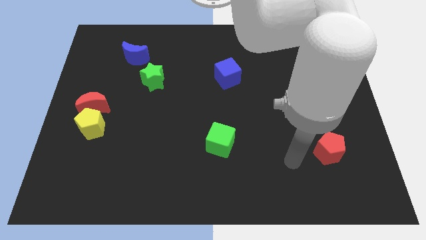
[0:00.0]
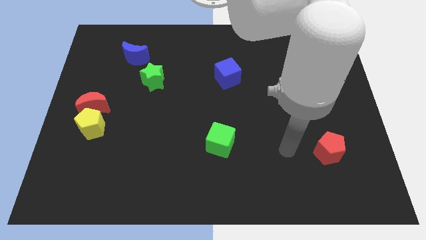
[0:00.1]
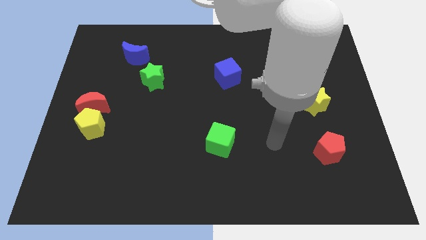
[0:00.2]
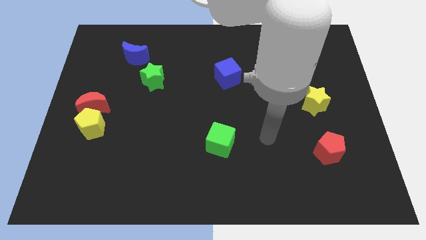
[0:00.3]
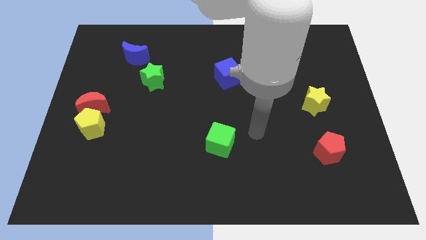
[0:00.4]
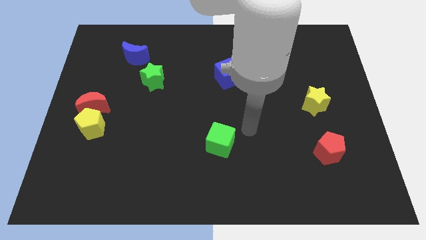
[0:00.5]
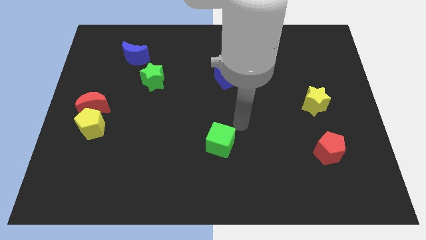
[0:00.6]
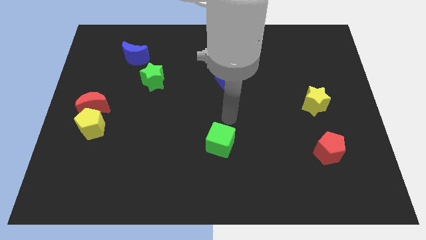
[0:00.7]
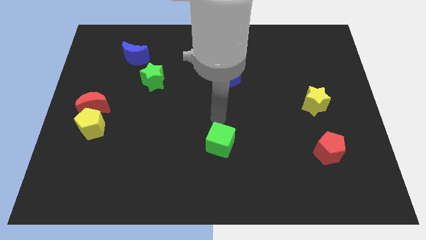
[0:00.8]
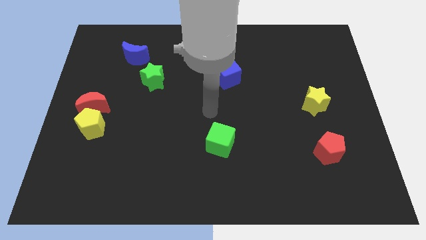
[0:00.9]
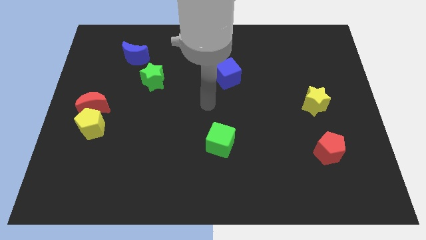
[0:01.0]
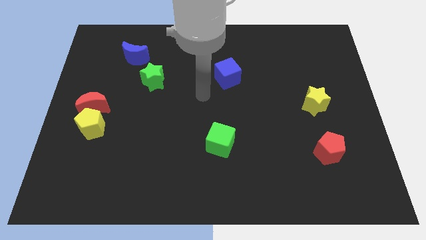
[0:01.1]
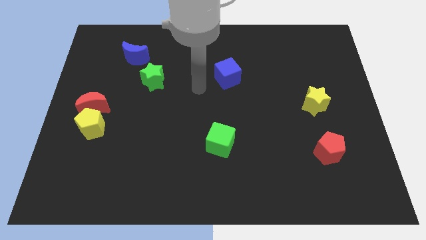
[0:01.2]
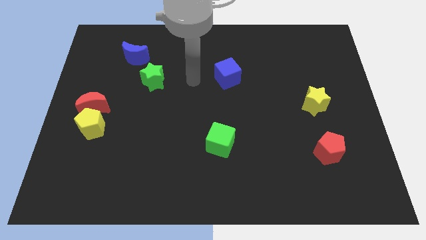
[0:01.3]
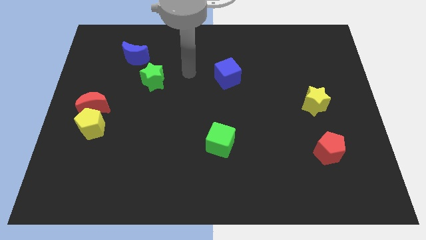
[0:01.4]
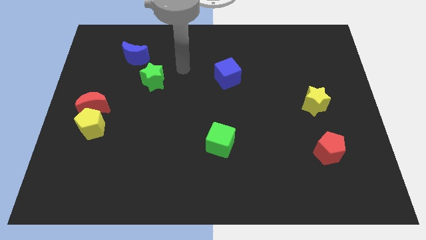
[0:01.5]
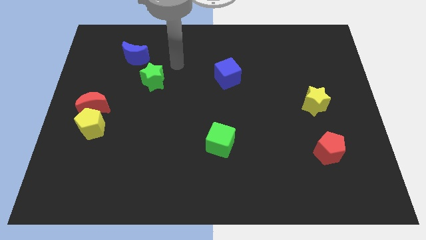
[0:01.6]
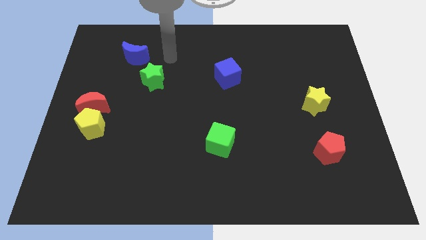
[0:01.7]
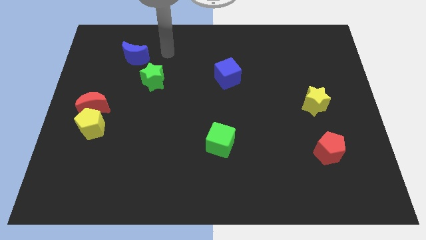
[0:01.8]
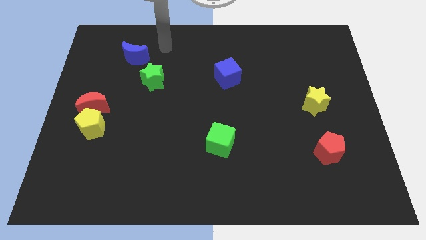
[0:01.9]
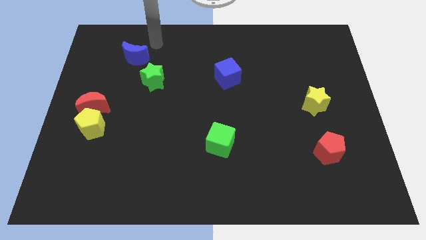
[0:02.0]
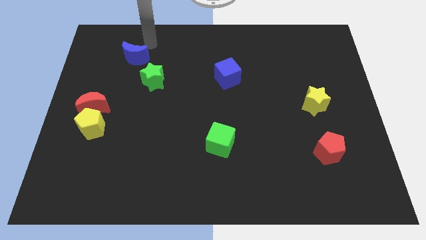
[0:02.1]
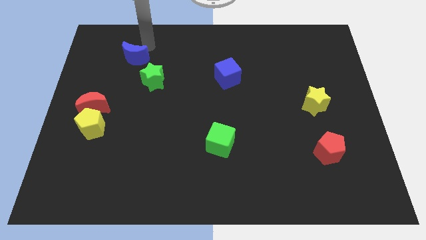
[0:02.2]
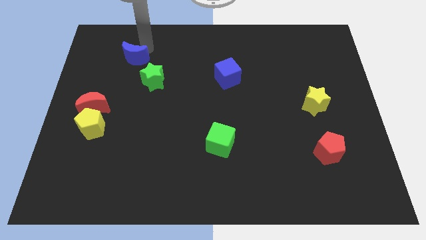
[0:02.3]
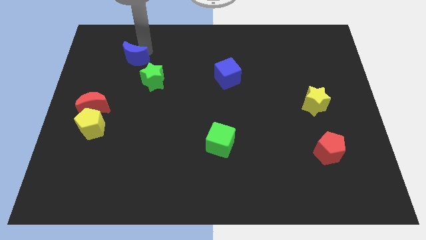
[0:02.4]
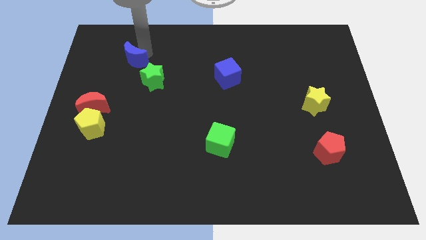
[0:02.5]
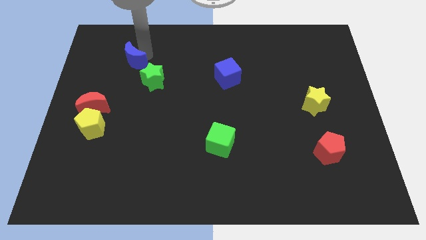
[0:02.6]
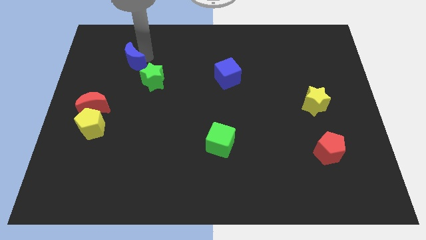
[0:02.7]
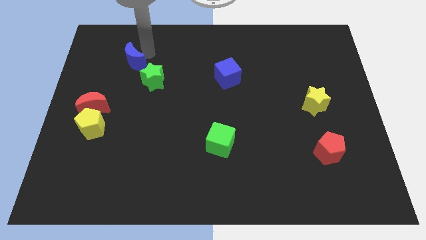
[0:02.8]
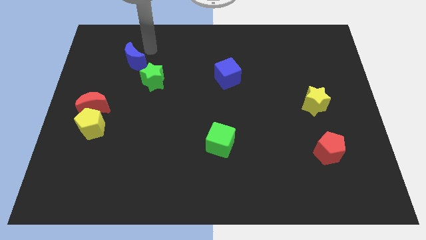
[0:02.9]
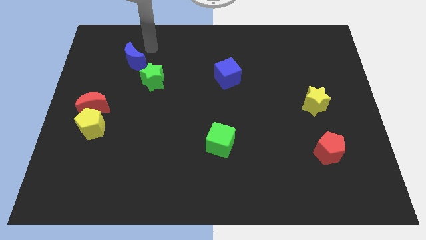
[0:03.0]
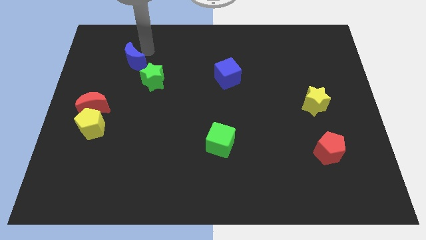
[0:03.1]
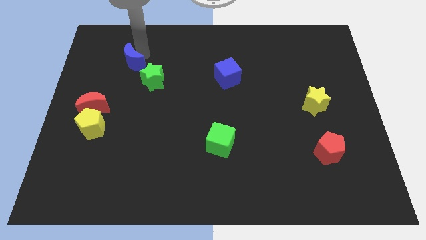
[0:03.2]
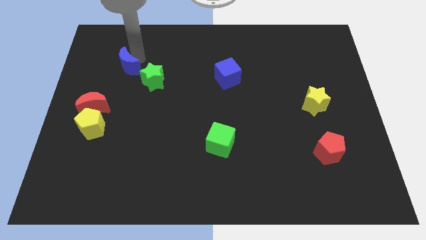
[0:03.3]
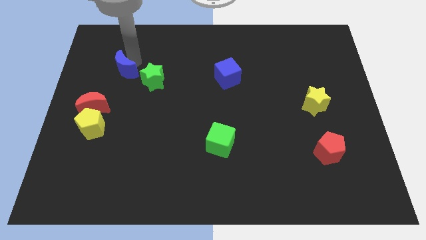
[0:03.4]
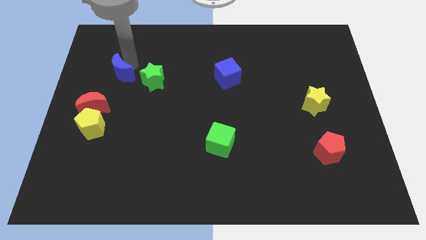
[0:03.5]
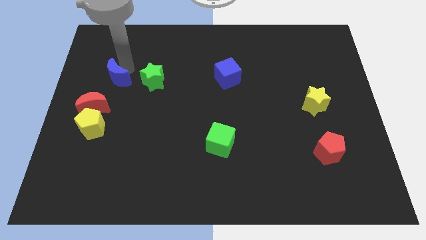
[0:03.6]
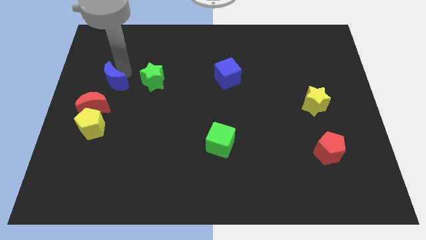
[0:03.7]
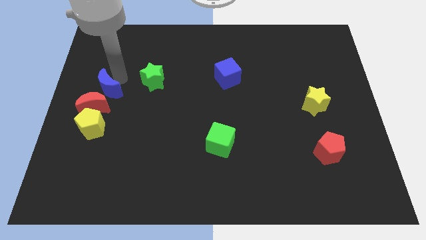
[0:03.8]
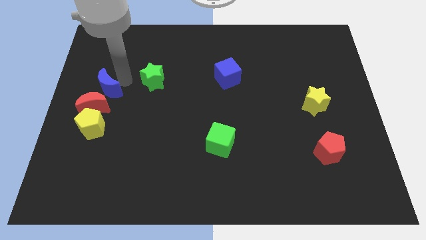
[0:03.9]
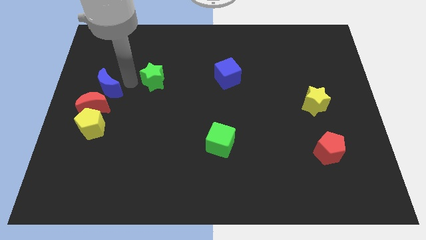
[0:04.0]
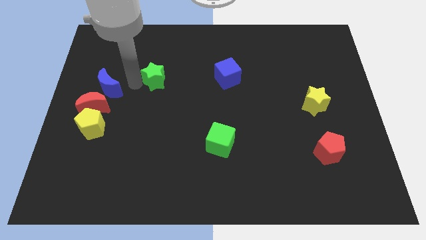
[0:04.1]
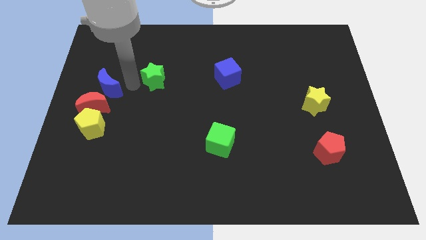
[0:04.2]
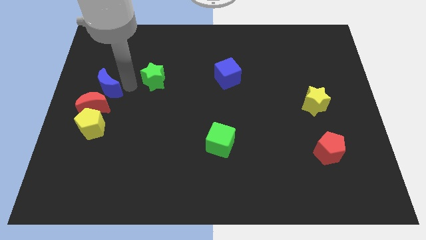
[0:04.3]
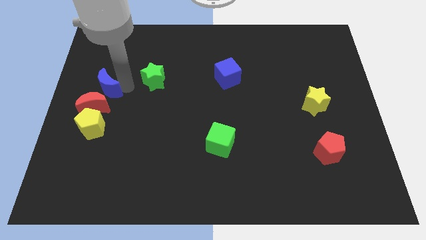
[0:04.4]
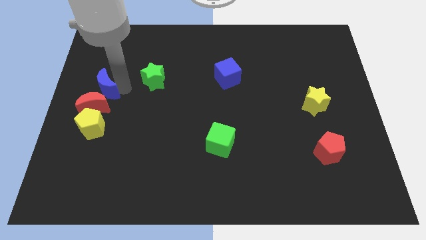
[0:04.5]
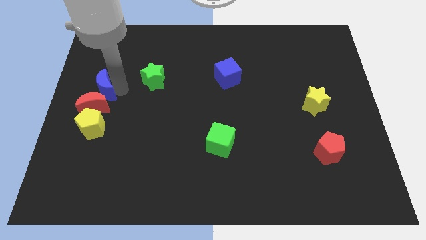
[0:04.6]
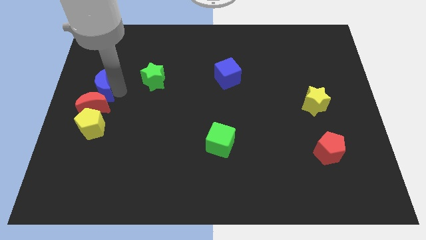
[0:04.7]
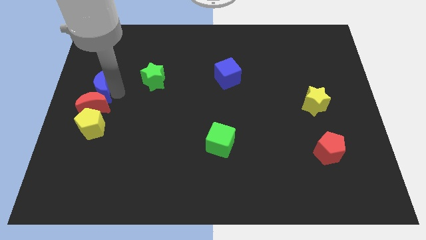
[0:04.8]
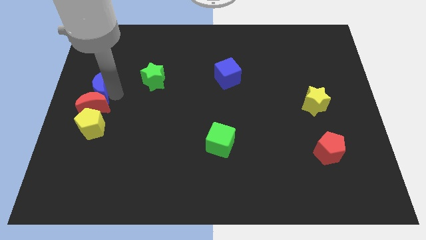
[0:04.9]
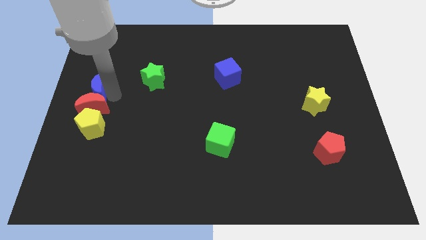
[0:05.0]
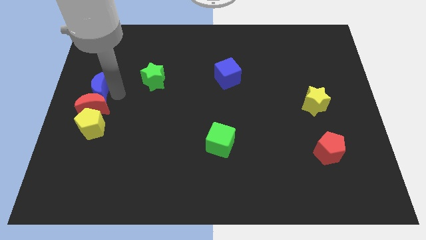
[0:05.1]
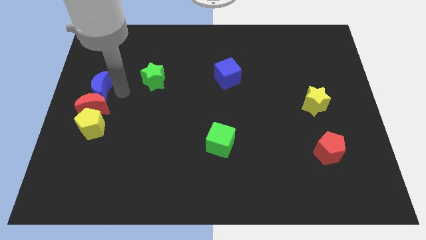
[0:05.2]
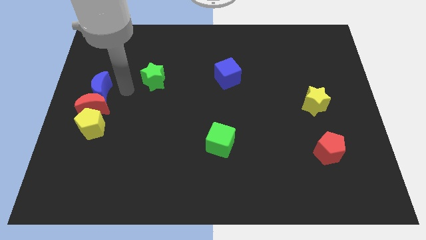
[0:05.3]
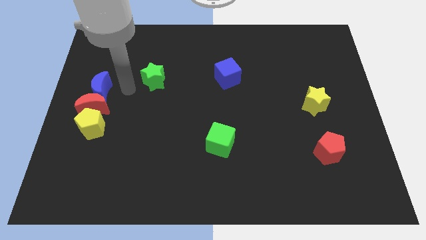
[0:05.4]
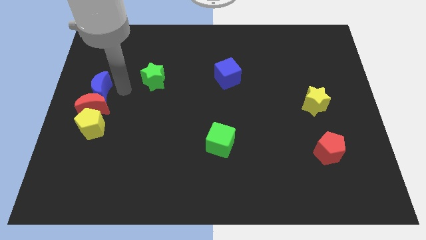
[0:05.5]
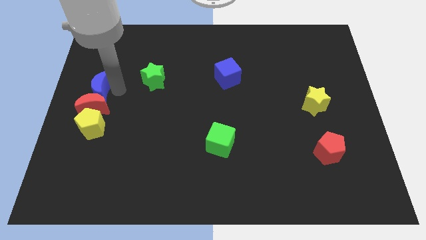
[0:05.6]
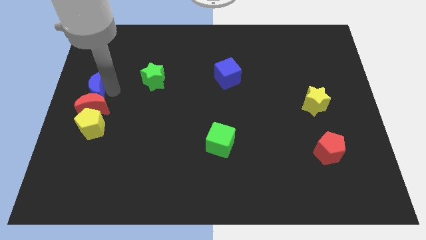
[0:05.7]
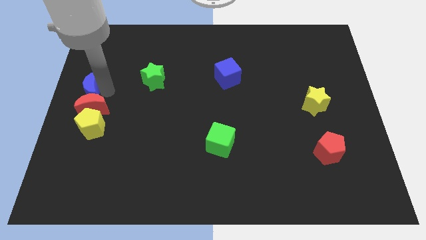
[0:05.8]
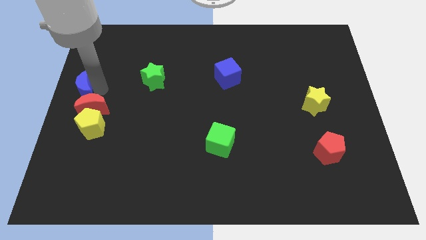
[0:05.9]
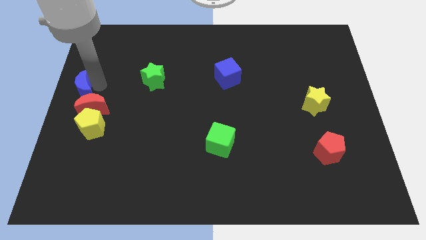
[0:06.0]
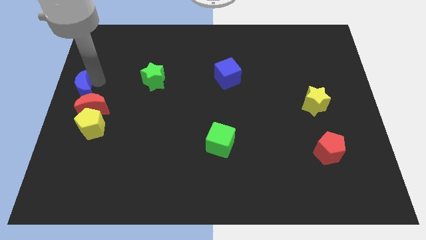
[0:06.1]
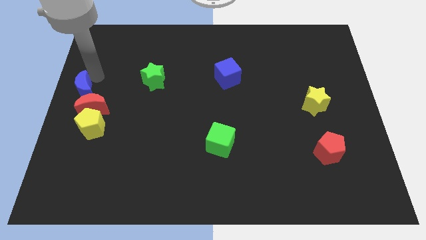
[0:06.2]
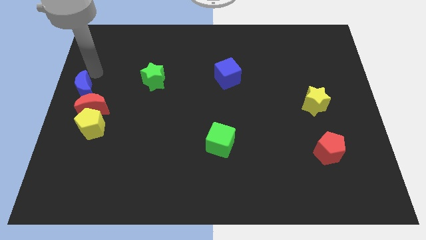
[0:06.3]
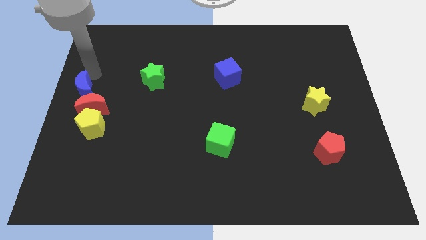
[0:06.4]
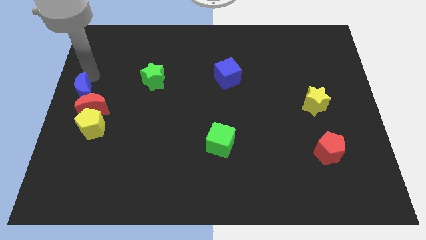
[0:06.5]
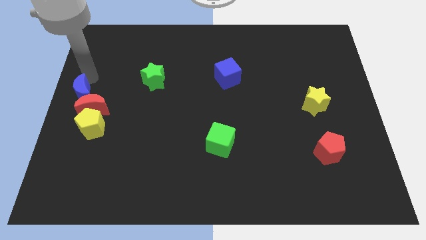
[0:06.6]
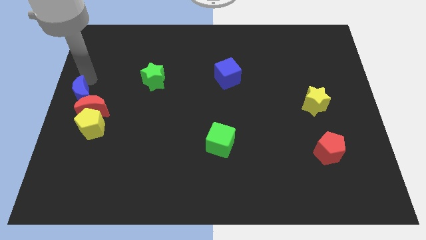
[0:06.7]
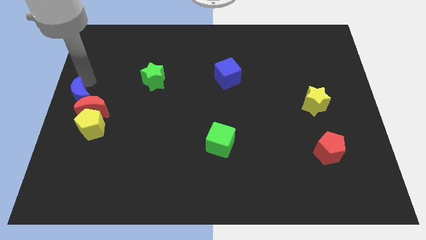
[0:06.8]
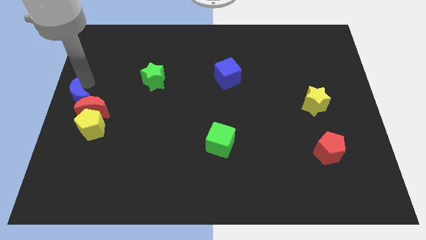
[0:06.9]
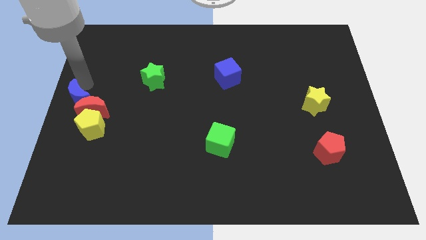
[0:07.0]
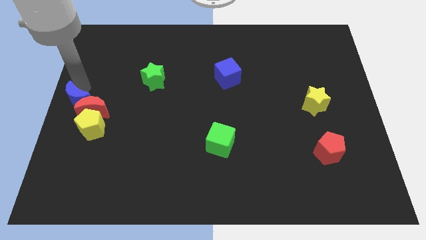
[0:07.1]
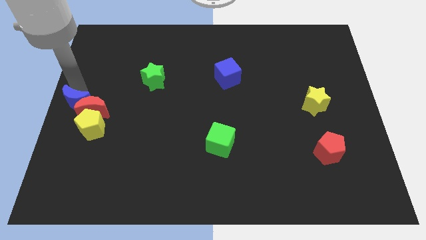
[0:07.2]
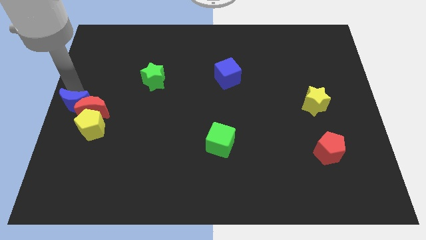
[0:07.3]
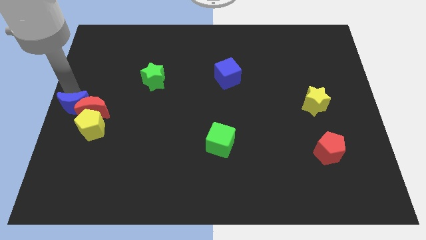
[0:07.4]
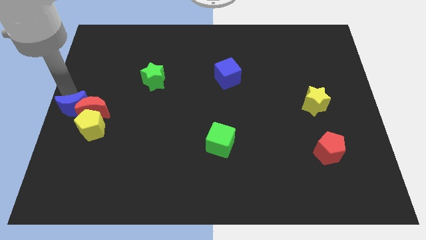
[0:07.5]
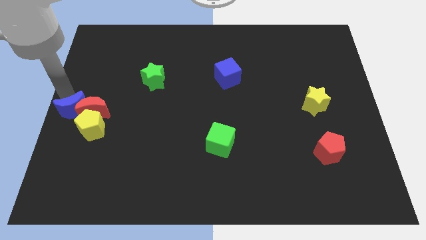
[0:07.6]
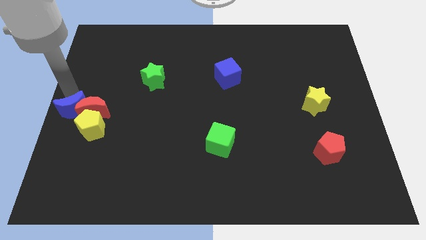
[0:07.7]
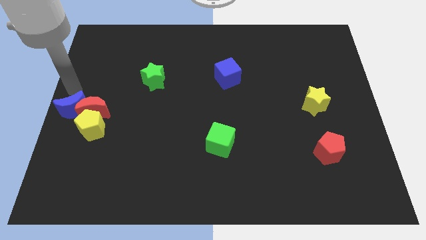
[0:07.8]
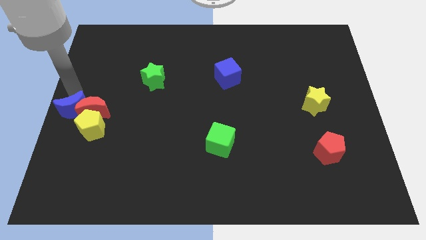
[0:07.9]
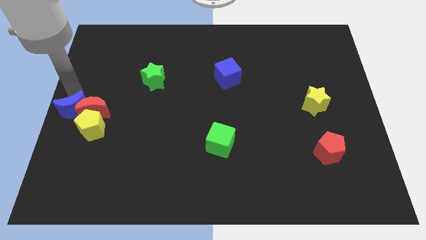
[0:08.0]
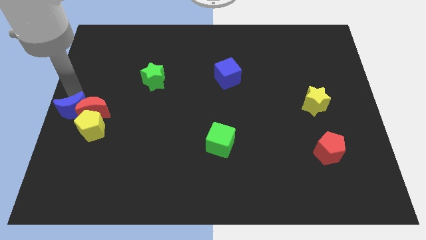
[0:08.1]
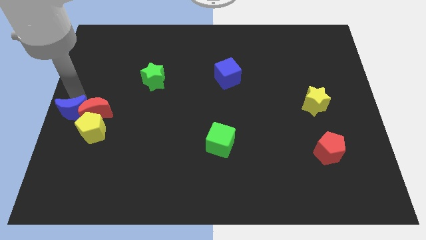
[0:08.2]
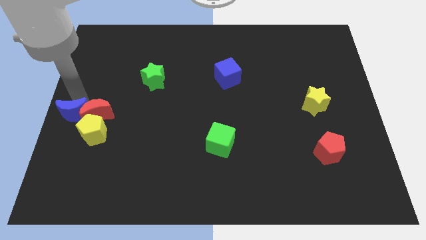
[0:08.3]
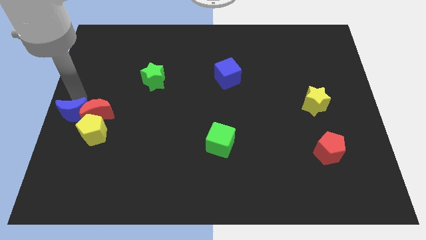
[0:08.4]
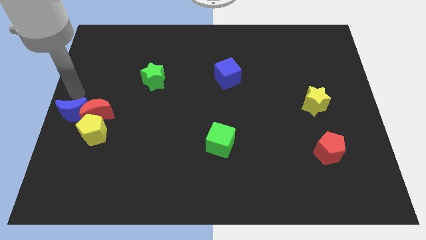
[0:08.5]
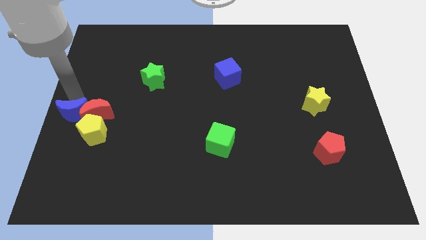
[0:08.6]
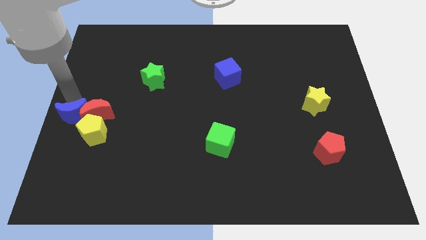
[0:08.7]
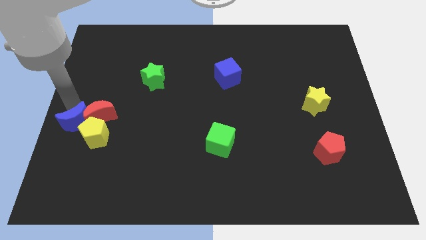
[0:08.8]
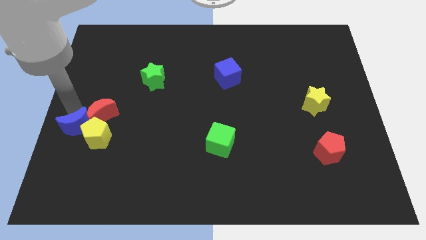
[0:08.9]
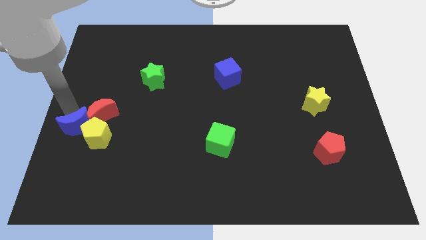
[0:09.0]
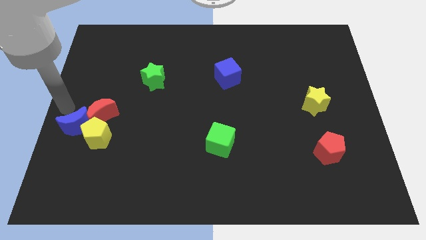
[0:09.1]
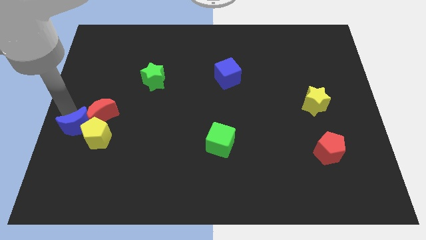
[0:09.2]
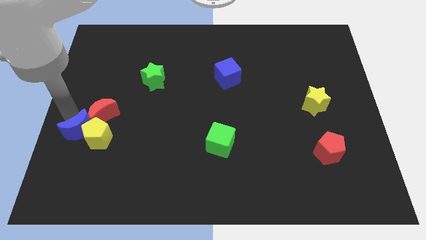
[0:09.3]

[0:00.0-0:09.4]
push the blue moon to the bottom of the red moon
